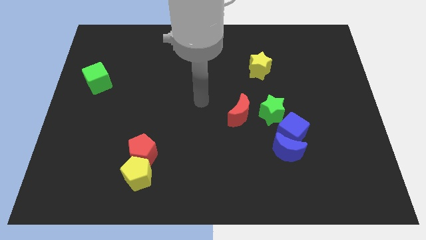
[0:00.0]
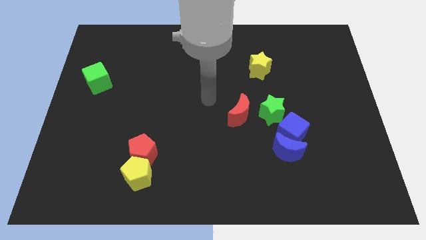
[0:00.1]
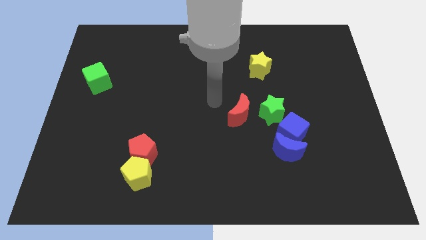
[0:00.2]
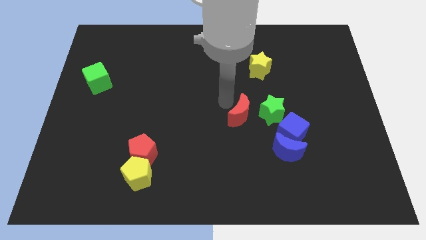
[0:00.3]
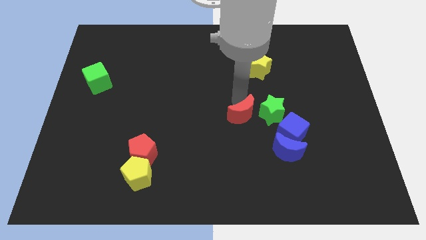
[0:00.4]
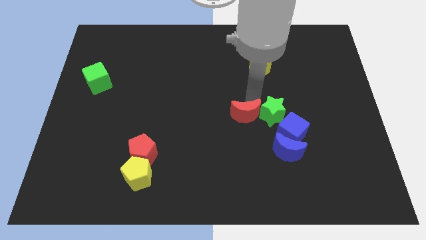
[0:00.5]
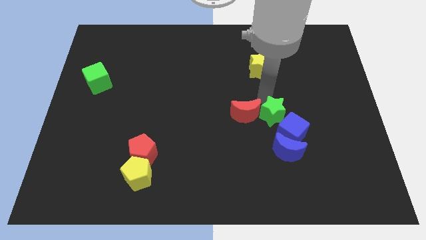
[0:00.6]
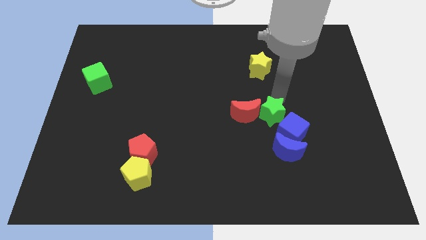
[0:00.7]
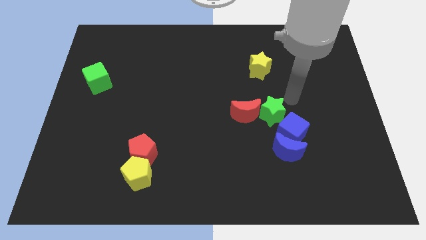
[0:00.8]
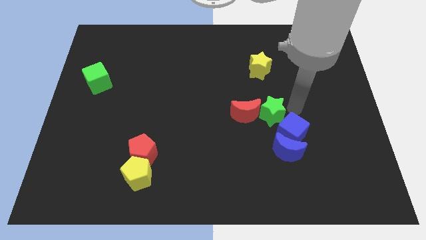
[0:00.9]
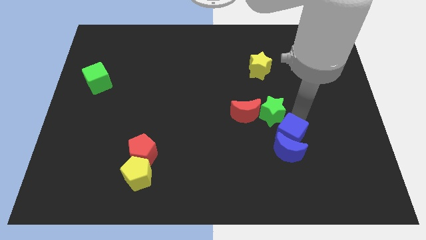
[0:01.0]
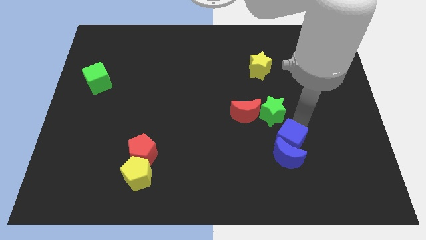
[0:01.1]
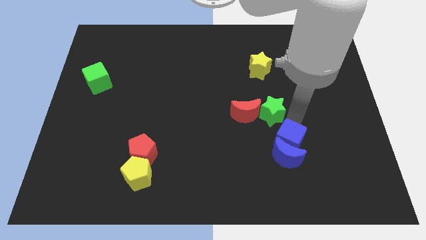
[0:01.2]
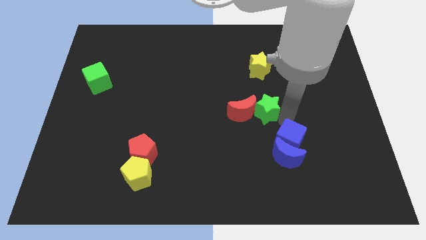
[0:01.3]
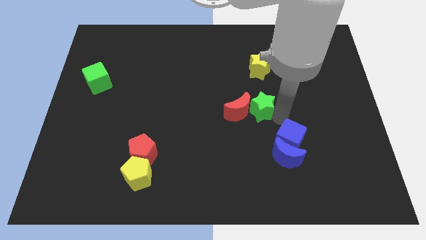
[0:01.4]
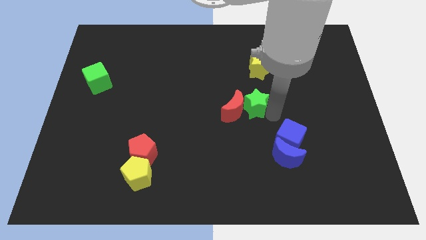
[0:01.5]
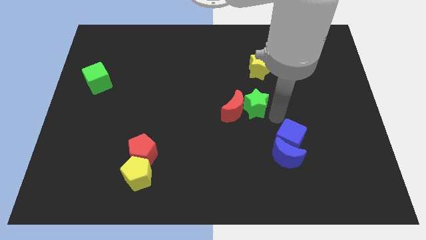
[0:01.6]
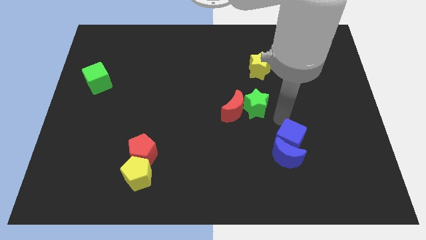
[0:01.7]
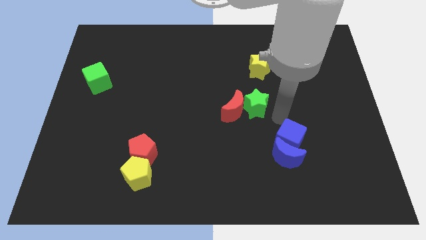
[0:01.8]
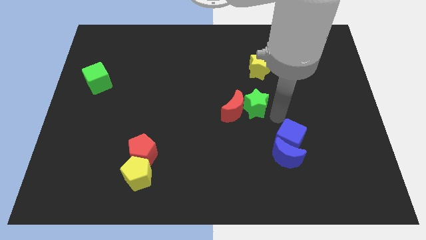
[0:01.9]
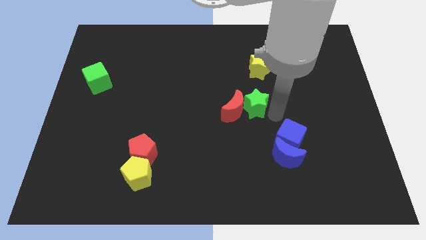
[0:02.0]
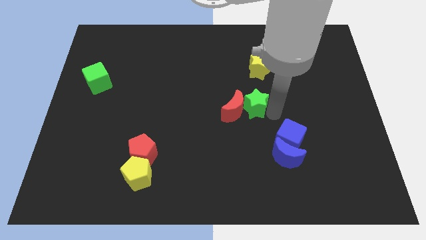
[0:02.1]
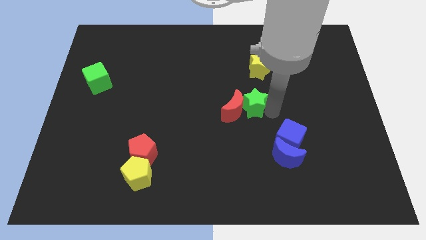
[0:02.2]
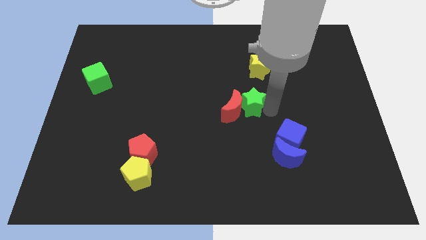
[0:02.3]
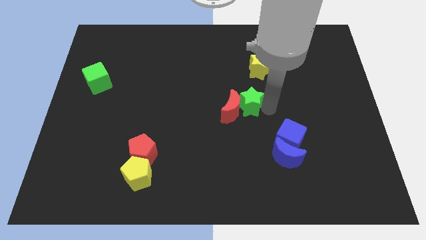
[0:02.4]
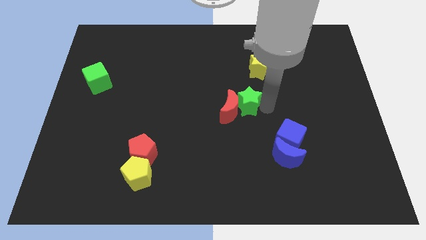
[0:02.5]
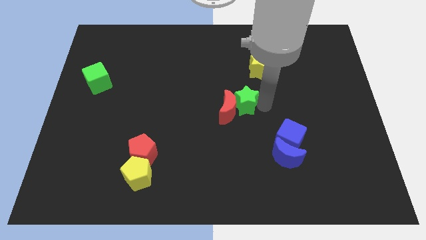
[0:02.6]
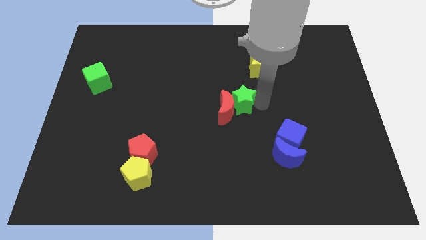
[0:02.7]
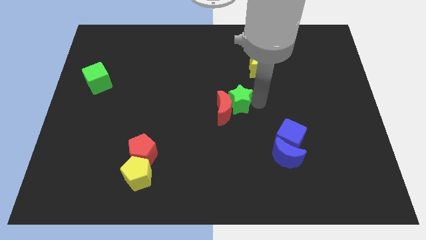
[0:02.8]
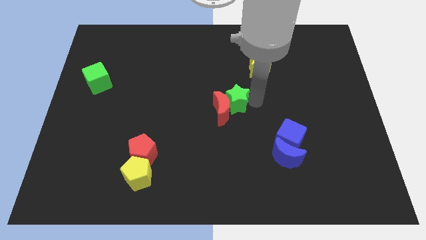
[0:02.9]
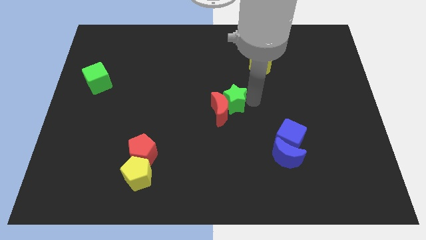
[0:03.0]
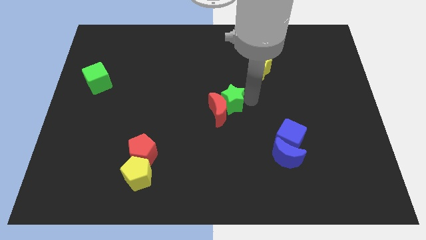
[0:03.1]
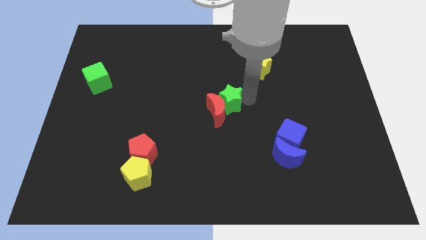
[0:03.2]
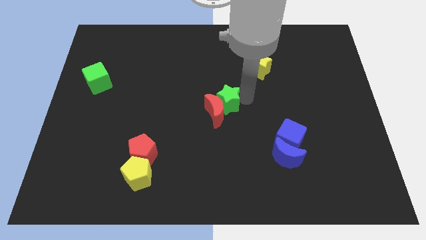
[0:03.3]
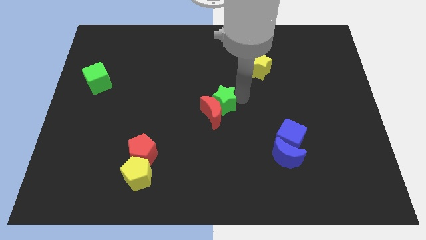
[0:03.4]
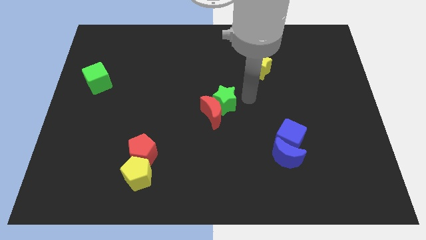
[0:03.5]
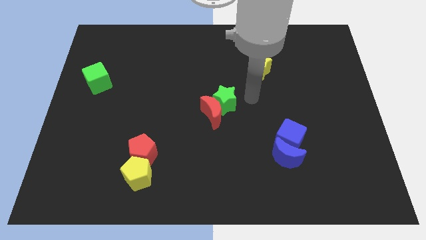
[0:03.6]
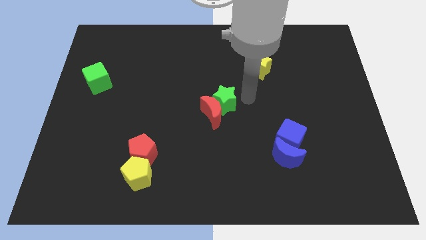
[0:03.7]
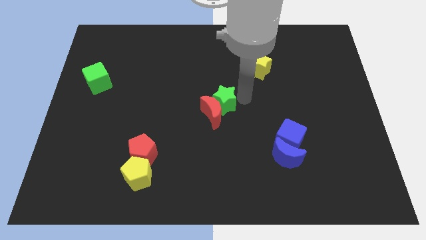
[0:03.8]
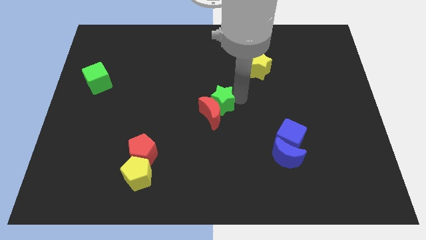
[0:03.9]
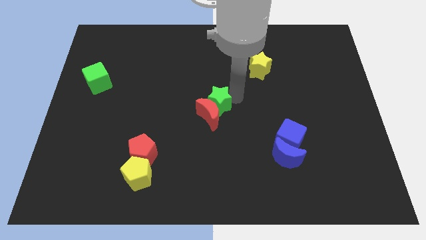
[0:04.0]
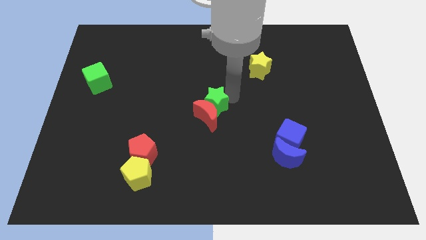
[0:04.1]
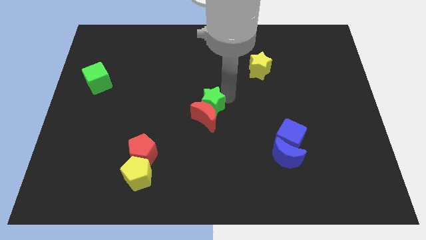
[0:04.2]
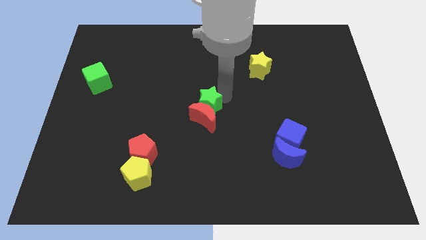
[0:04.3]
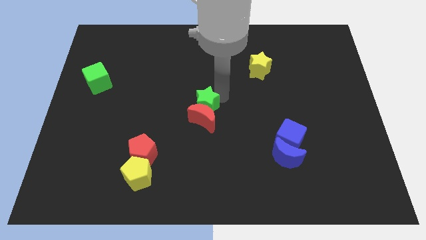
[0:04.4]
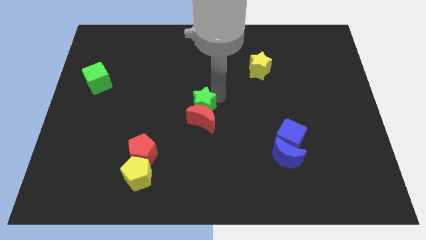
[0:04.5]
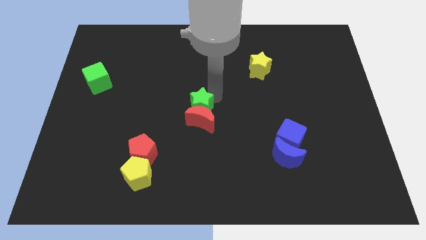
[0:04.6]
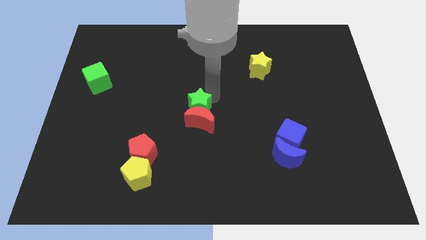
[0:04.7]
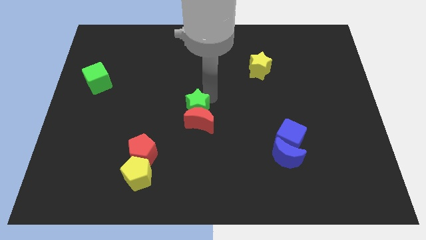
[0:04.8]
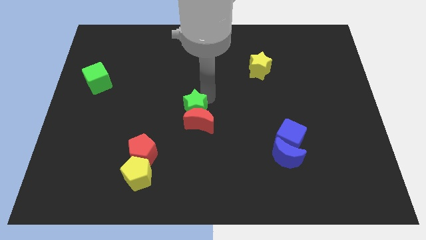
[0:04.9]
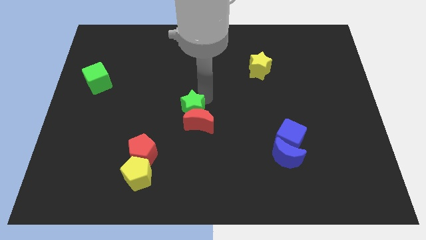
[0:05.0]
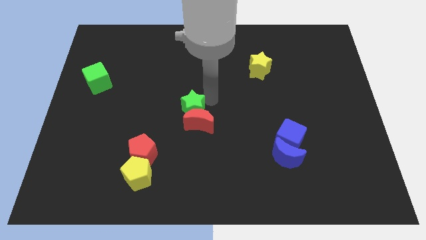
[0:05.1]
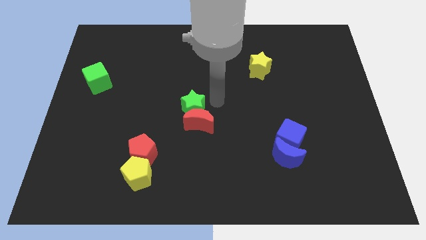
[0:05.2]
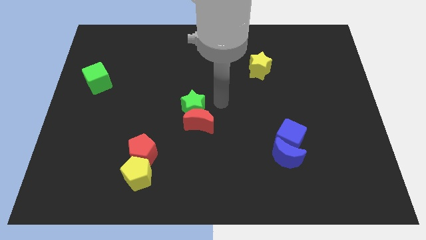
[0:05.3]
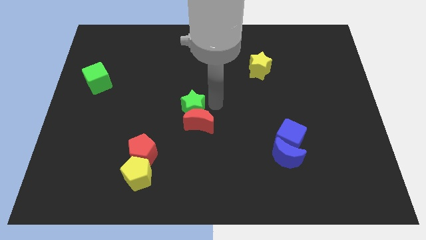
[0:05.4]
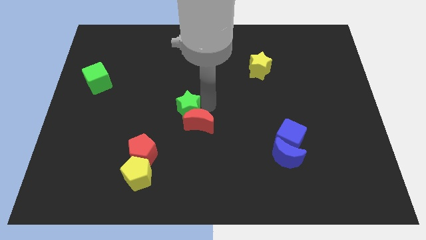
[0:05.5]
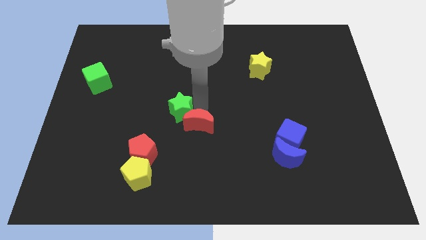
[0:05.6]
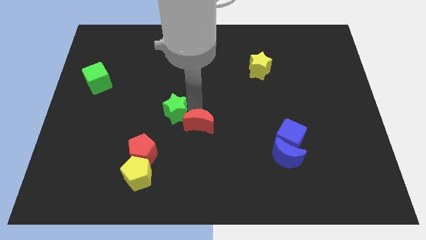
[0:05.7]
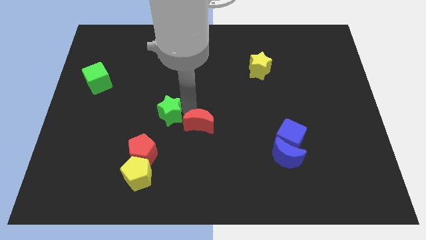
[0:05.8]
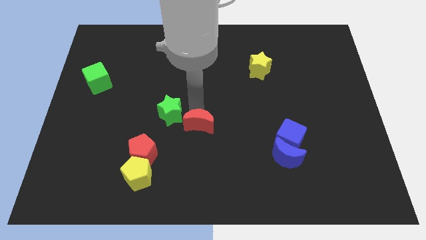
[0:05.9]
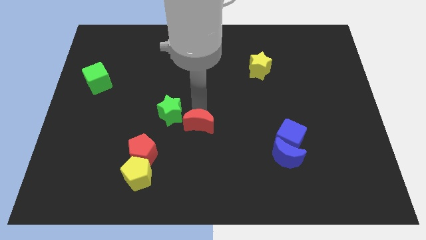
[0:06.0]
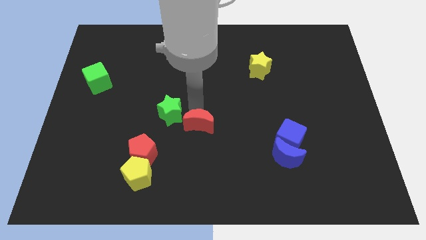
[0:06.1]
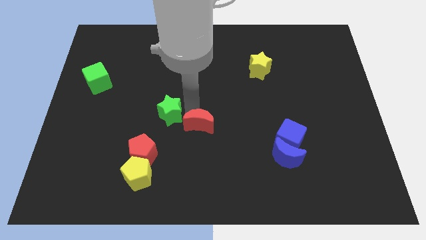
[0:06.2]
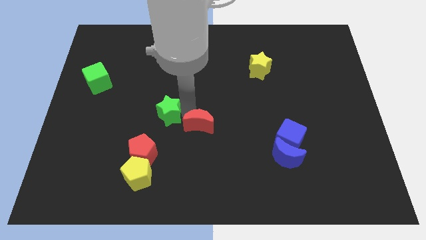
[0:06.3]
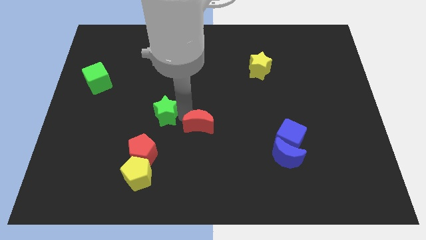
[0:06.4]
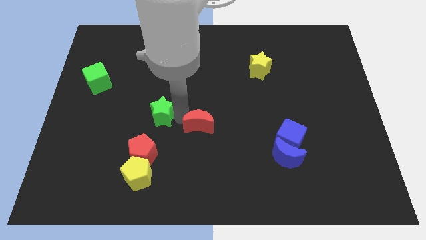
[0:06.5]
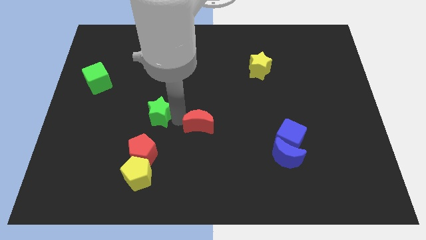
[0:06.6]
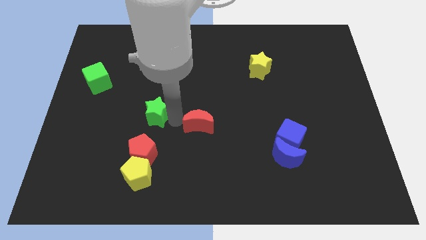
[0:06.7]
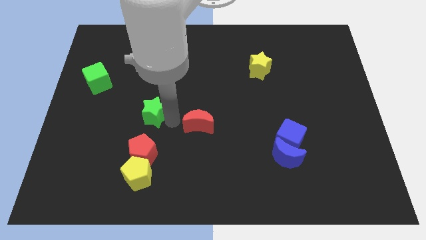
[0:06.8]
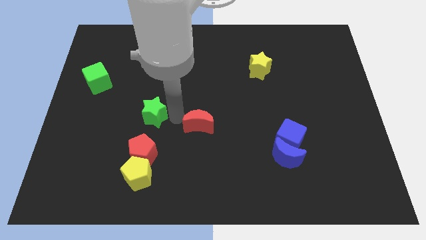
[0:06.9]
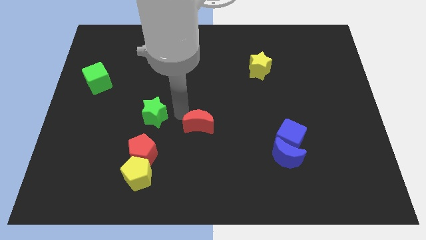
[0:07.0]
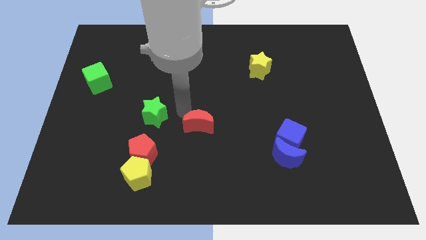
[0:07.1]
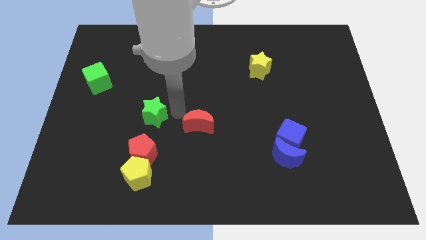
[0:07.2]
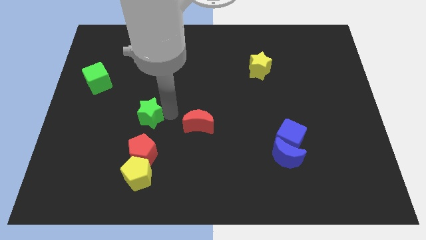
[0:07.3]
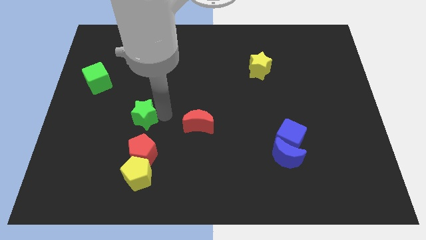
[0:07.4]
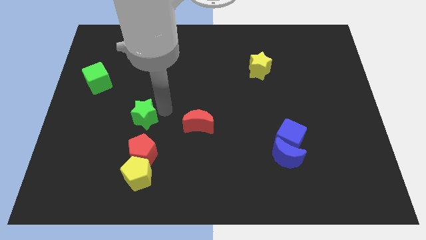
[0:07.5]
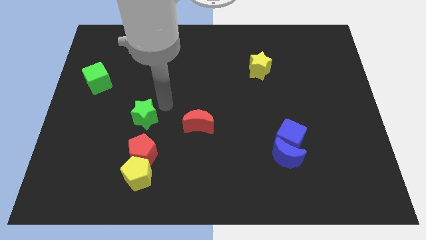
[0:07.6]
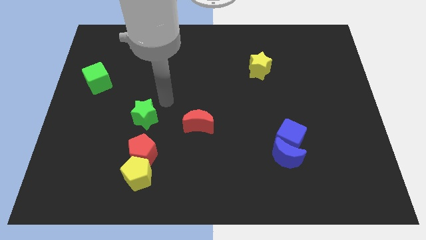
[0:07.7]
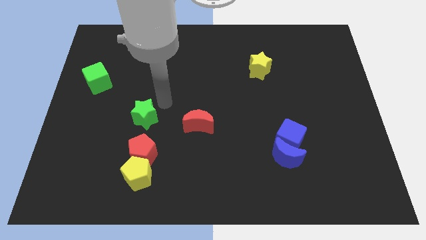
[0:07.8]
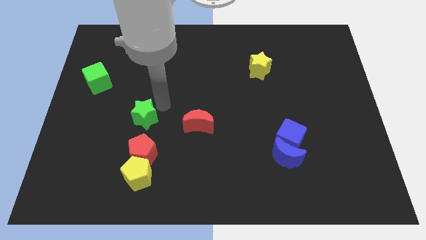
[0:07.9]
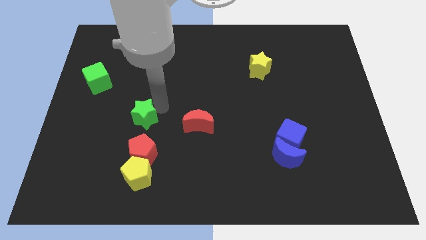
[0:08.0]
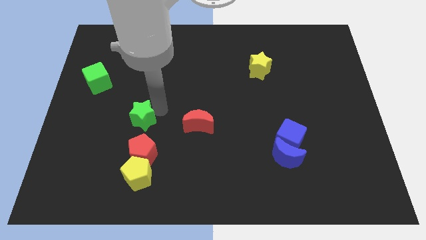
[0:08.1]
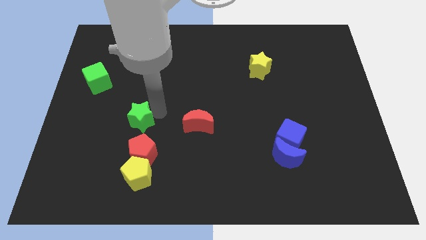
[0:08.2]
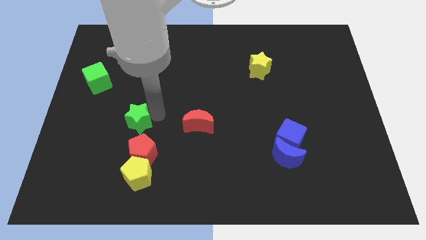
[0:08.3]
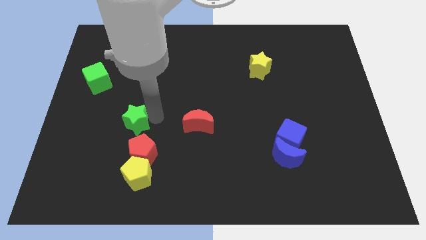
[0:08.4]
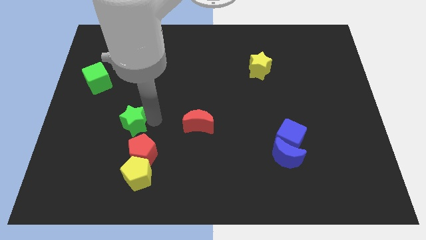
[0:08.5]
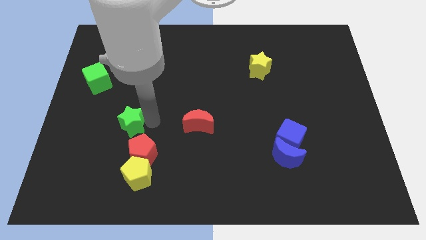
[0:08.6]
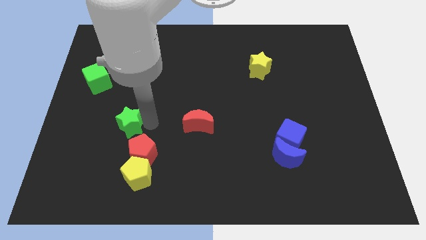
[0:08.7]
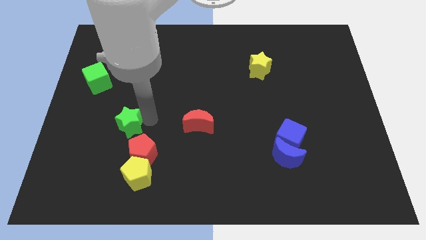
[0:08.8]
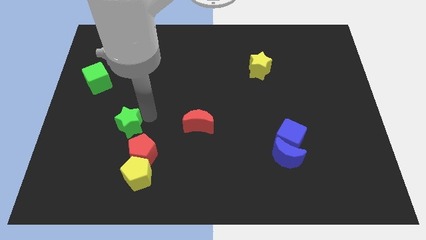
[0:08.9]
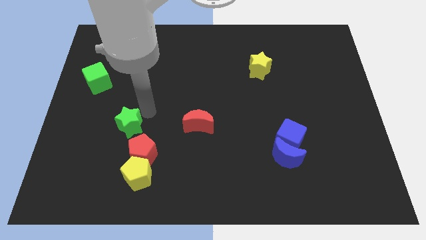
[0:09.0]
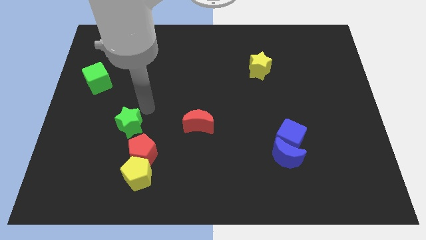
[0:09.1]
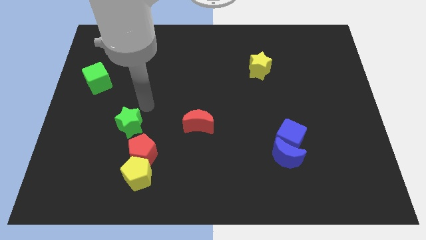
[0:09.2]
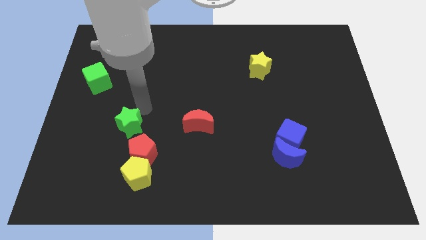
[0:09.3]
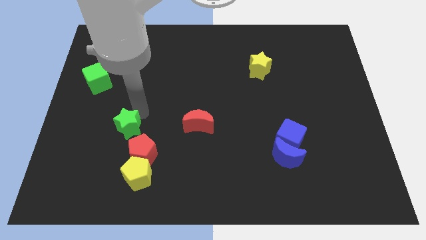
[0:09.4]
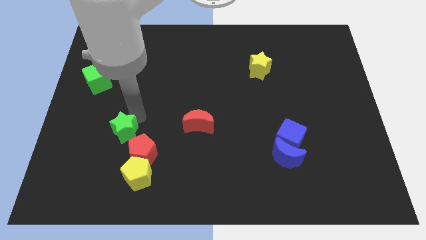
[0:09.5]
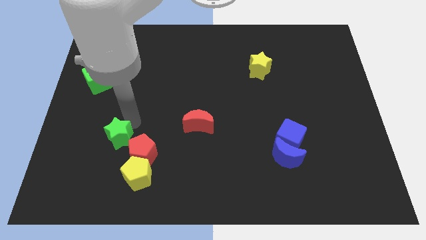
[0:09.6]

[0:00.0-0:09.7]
push the green star to the top left of the yellow pentagon
